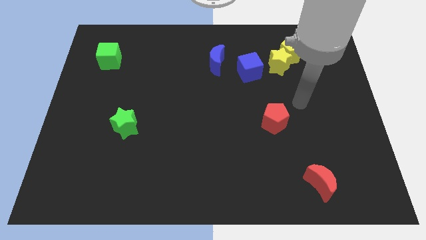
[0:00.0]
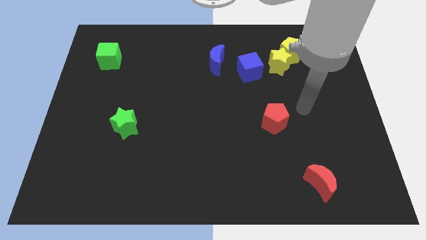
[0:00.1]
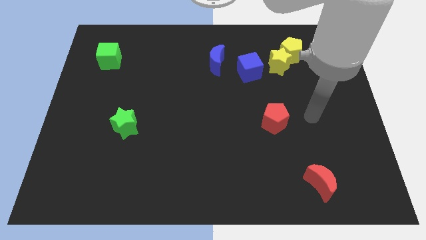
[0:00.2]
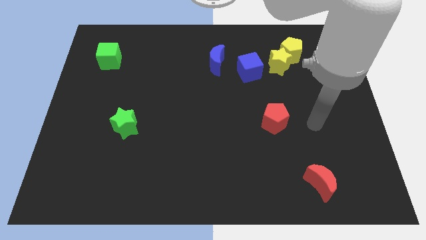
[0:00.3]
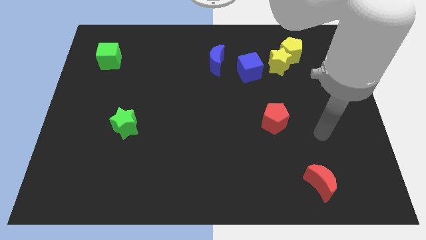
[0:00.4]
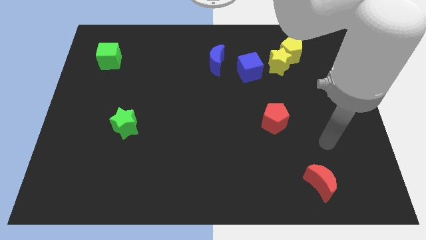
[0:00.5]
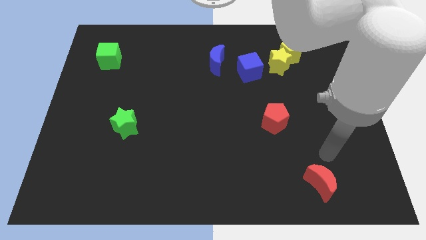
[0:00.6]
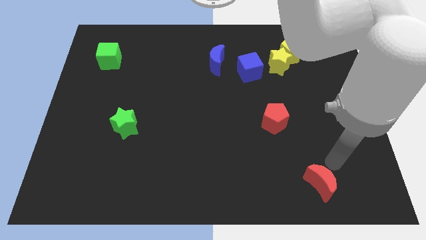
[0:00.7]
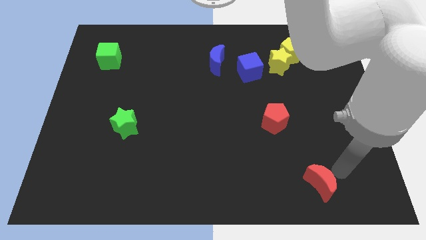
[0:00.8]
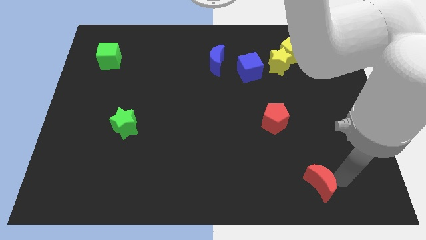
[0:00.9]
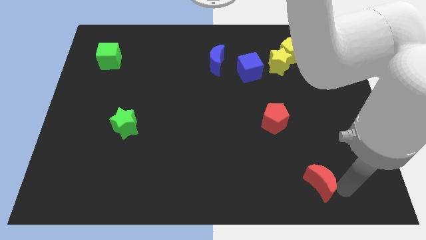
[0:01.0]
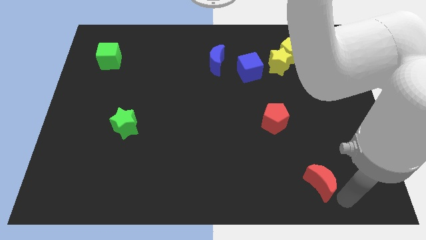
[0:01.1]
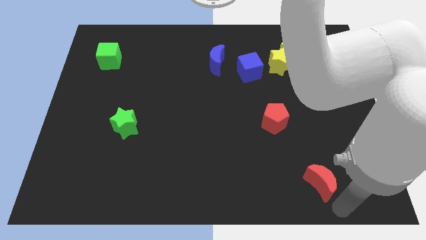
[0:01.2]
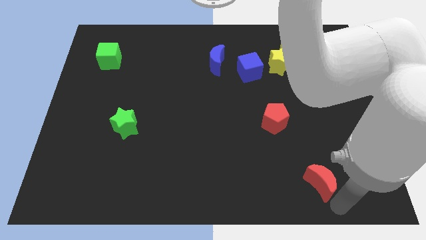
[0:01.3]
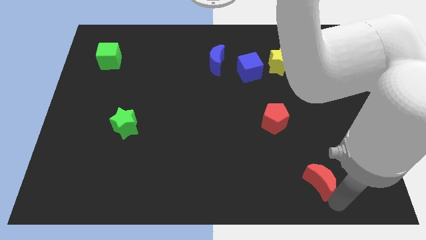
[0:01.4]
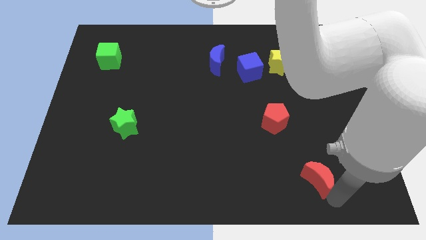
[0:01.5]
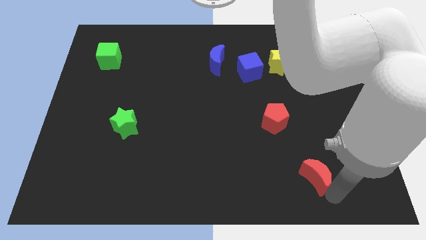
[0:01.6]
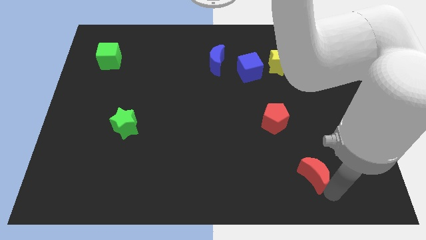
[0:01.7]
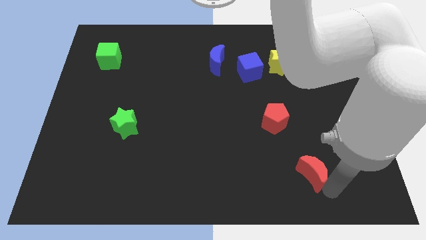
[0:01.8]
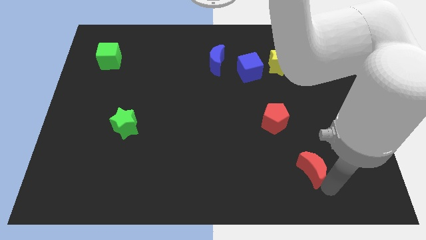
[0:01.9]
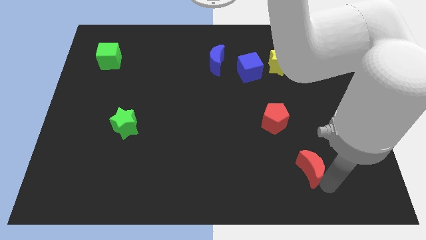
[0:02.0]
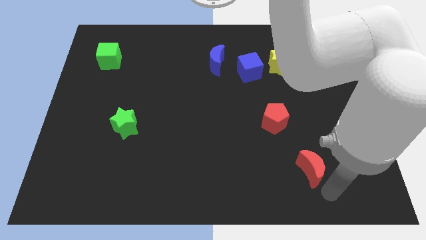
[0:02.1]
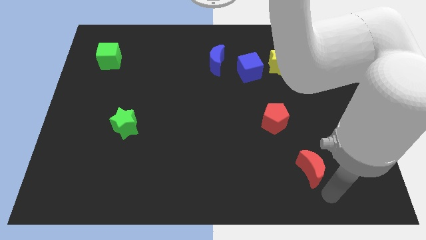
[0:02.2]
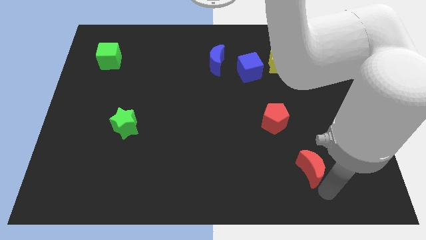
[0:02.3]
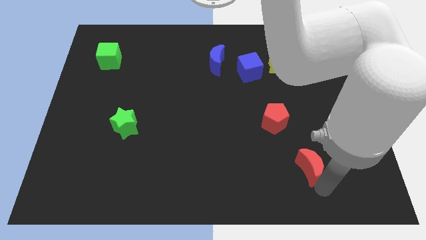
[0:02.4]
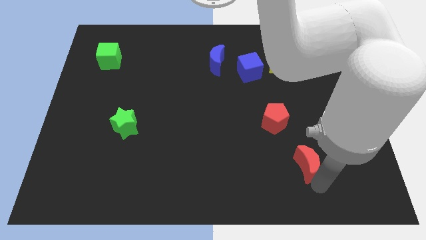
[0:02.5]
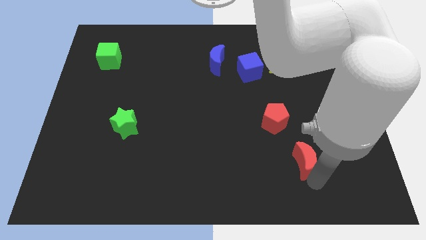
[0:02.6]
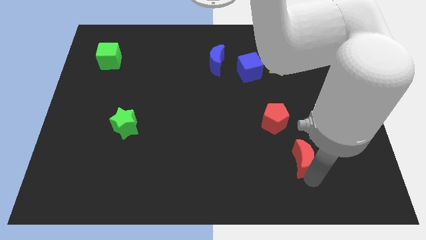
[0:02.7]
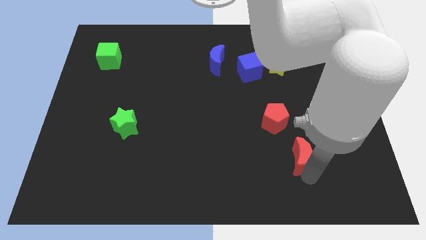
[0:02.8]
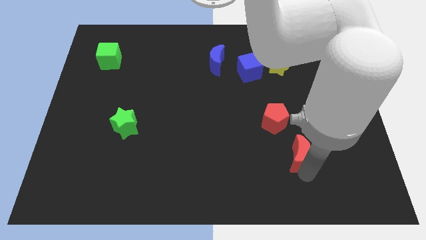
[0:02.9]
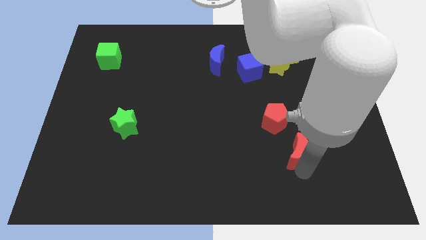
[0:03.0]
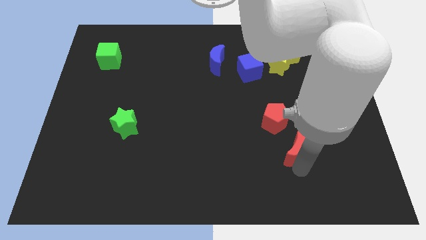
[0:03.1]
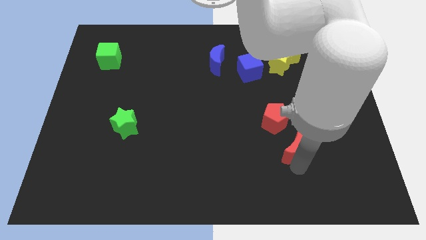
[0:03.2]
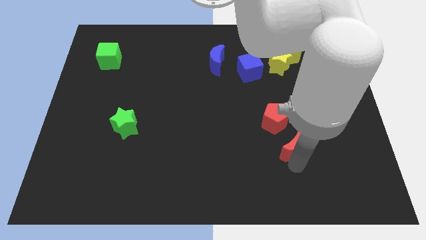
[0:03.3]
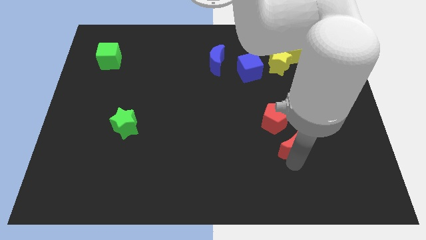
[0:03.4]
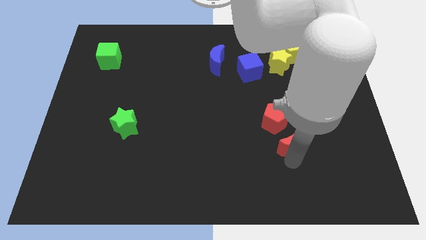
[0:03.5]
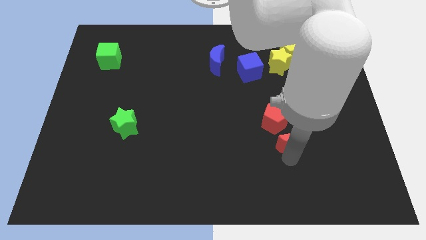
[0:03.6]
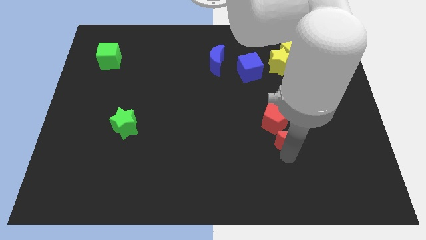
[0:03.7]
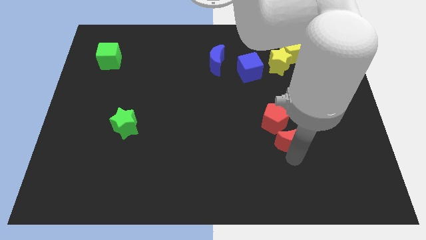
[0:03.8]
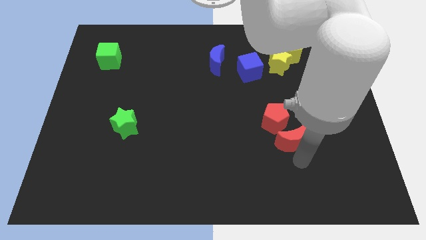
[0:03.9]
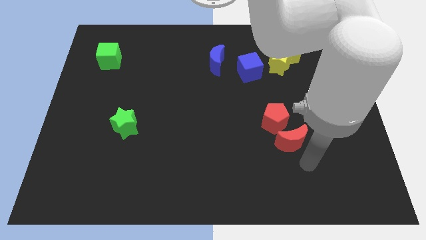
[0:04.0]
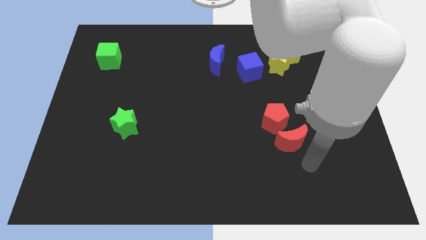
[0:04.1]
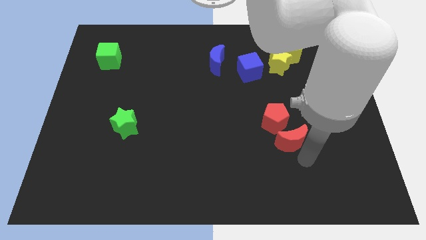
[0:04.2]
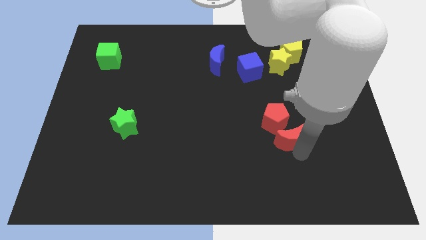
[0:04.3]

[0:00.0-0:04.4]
put the red moon towards the red pentagon

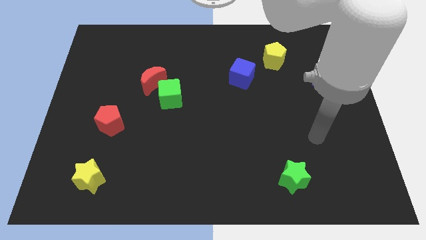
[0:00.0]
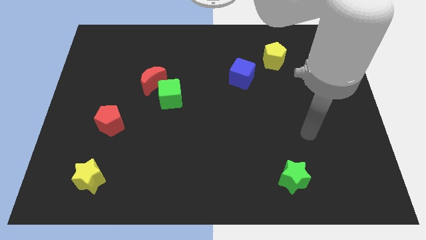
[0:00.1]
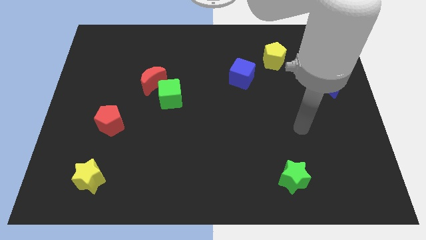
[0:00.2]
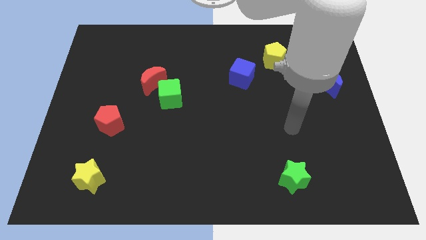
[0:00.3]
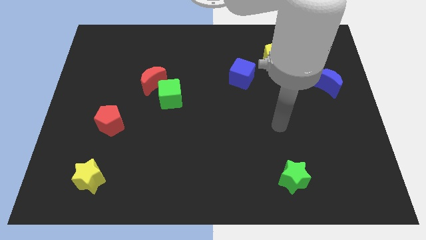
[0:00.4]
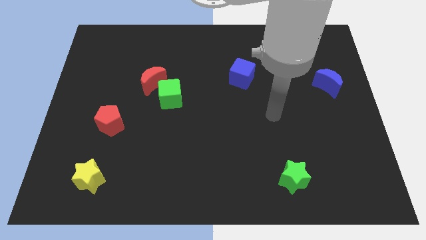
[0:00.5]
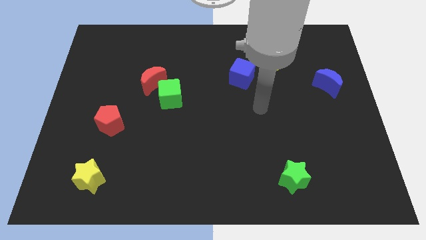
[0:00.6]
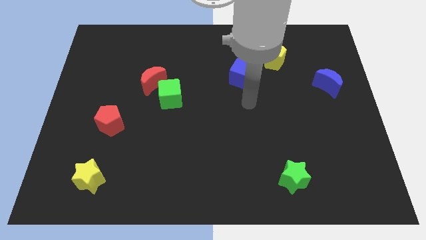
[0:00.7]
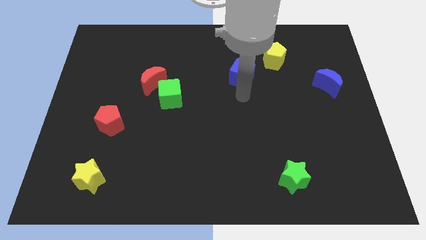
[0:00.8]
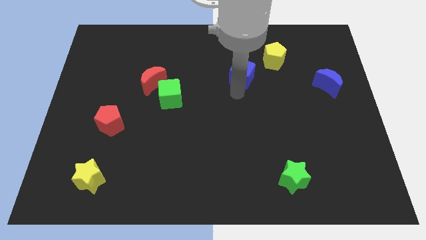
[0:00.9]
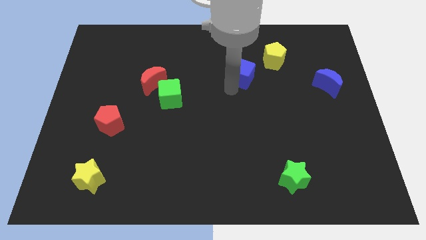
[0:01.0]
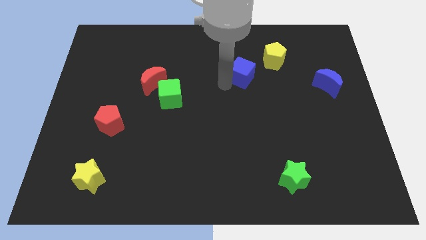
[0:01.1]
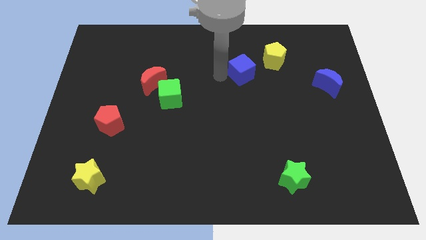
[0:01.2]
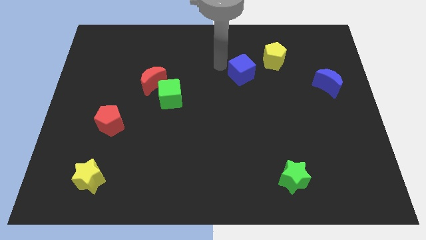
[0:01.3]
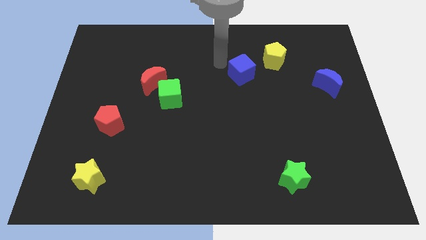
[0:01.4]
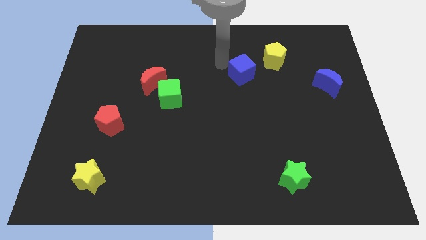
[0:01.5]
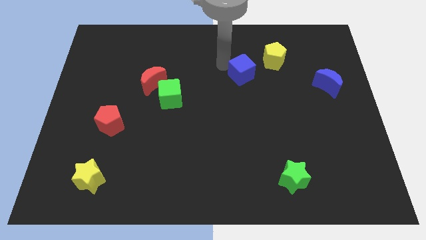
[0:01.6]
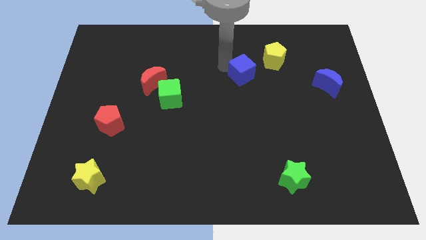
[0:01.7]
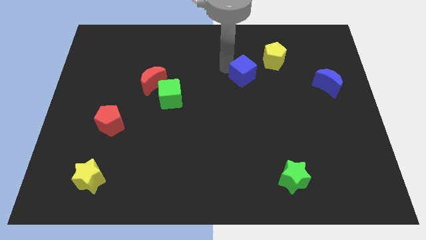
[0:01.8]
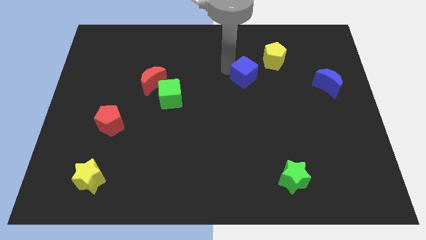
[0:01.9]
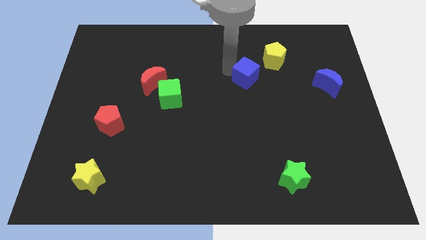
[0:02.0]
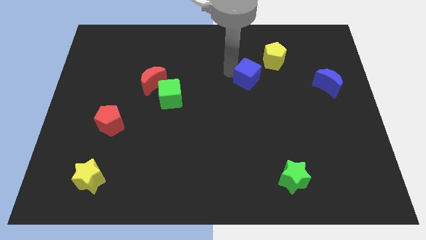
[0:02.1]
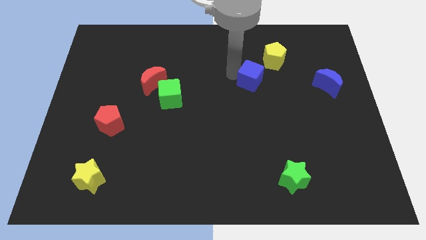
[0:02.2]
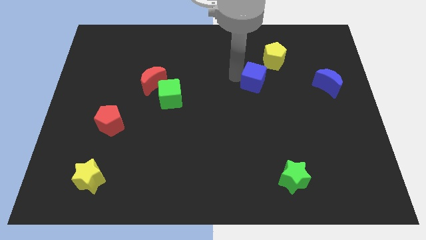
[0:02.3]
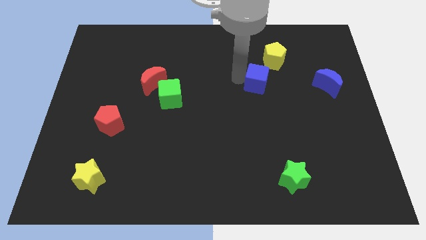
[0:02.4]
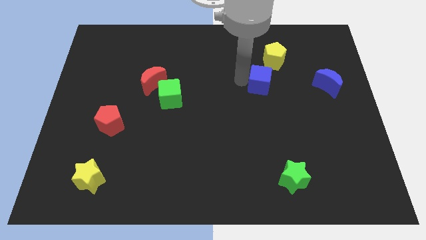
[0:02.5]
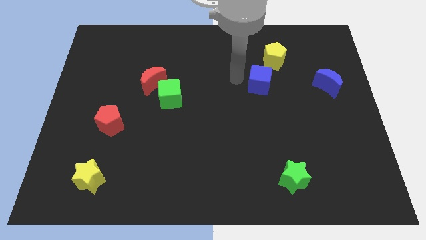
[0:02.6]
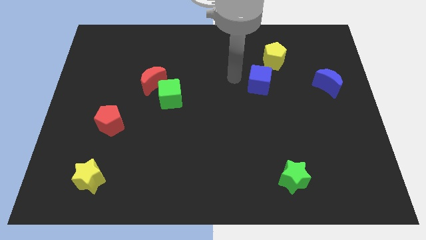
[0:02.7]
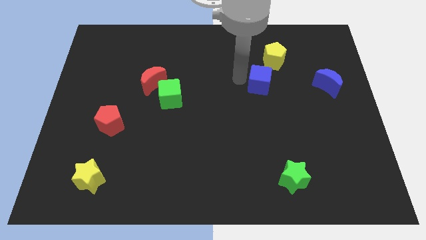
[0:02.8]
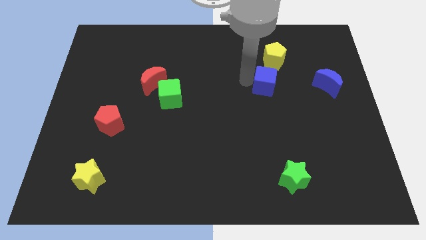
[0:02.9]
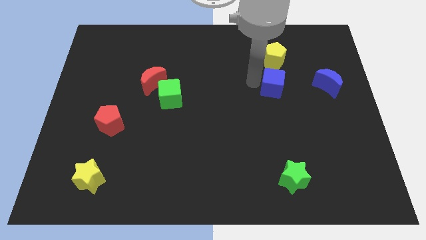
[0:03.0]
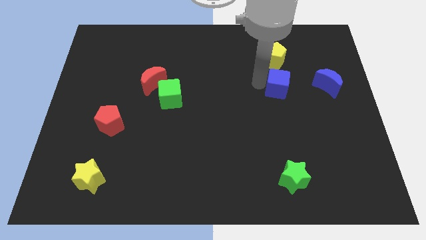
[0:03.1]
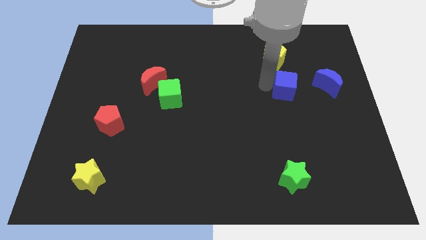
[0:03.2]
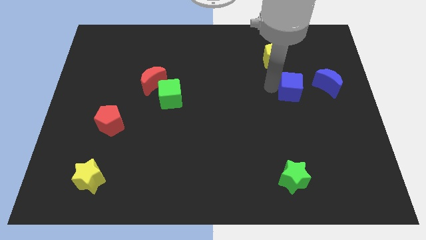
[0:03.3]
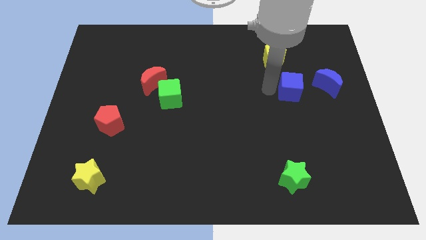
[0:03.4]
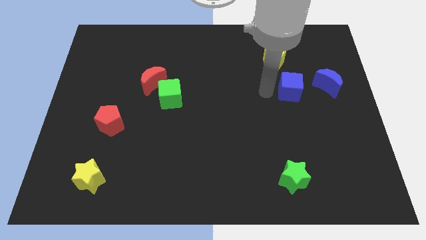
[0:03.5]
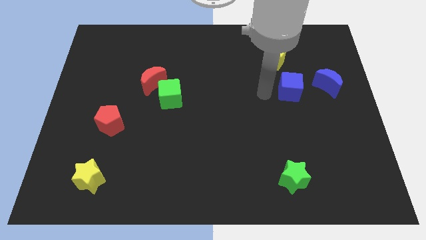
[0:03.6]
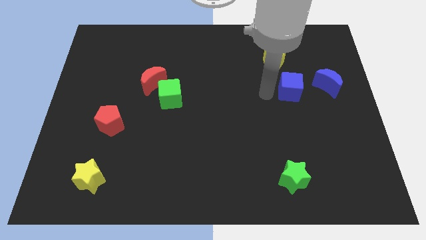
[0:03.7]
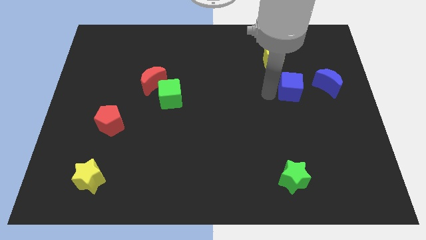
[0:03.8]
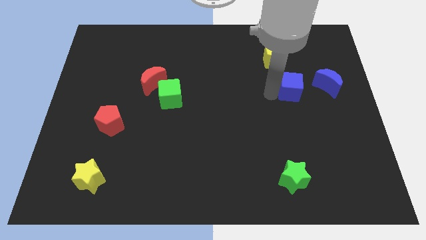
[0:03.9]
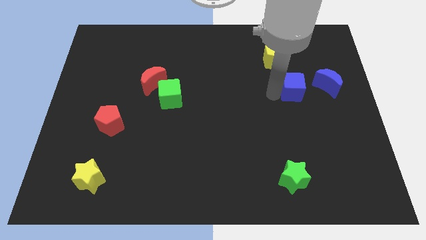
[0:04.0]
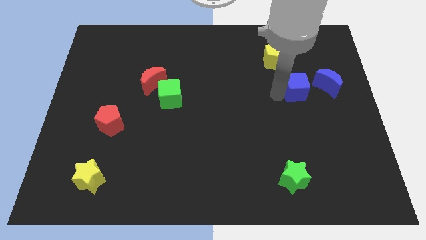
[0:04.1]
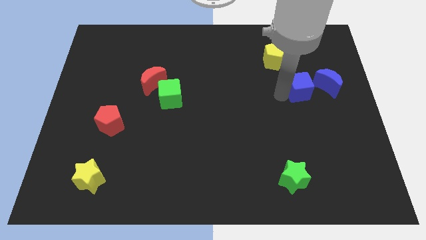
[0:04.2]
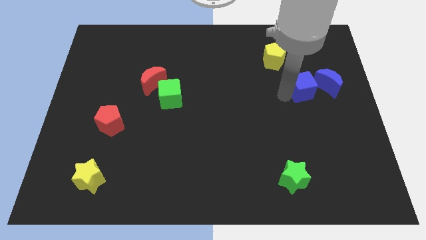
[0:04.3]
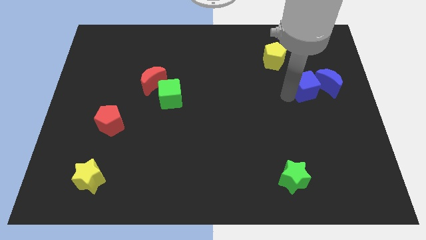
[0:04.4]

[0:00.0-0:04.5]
move the blue cube towards the blue moon
